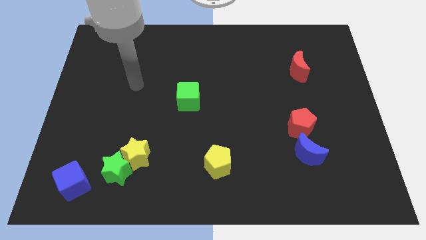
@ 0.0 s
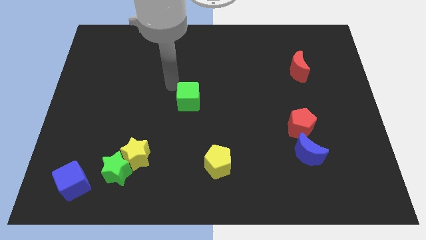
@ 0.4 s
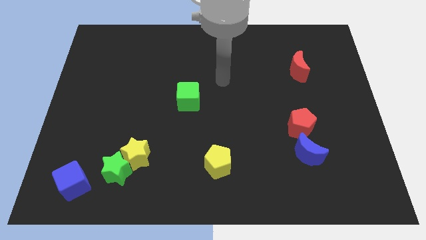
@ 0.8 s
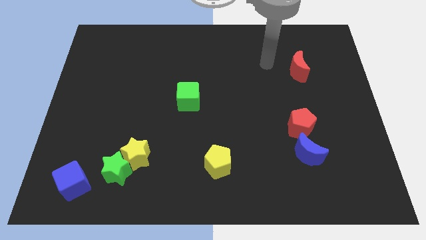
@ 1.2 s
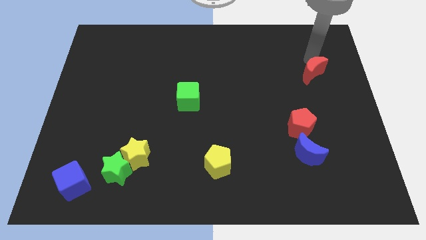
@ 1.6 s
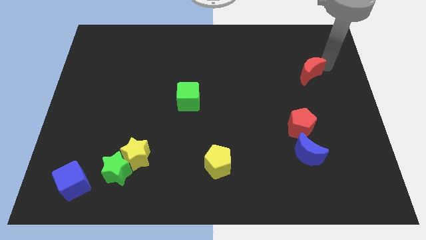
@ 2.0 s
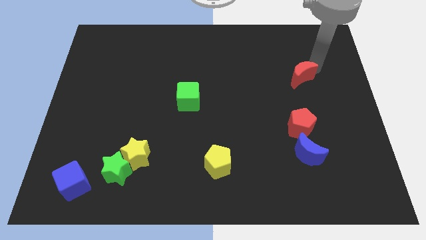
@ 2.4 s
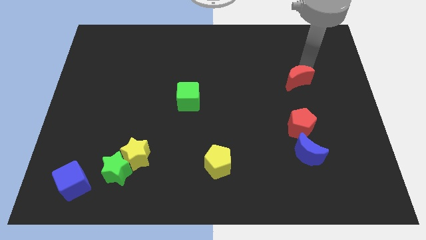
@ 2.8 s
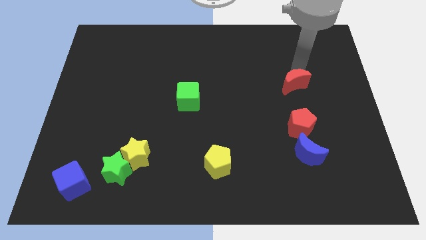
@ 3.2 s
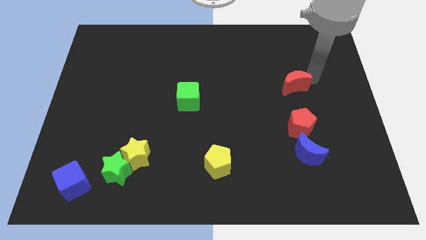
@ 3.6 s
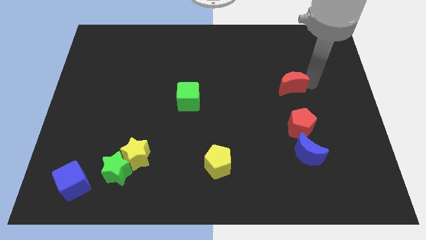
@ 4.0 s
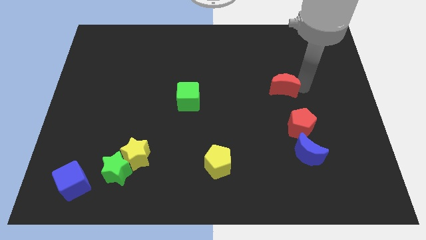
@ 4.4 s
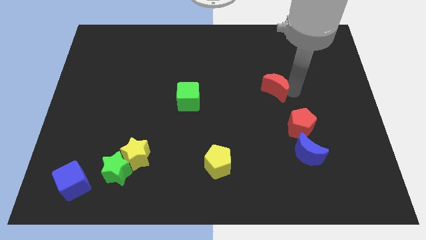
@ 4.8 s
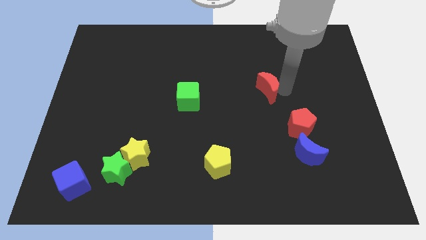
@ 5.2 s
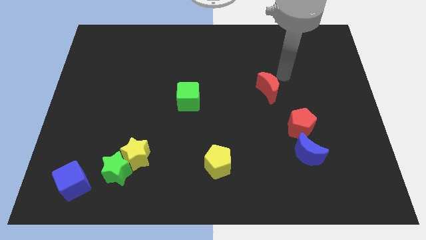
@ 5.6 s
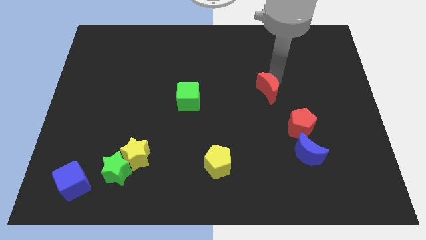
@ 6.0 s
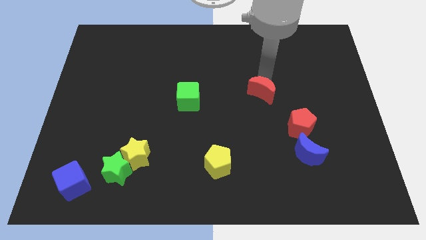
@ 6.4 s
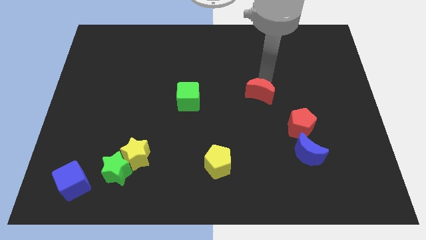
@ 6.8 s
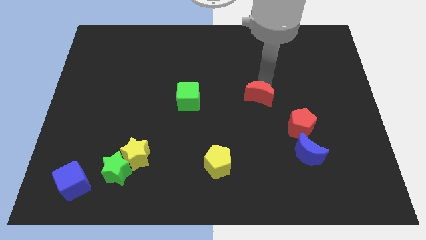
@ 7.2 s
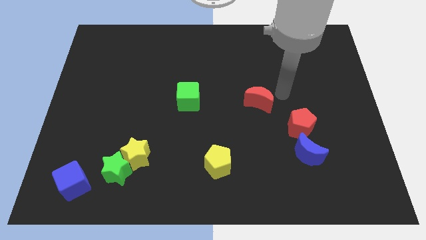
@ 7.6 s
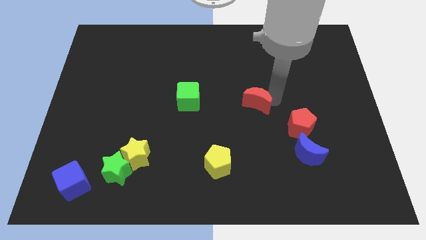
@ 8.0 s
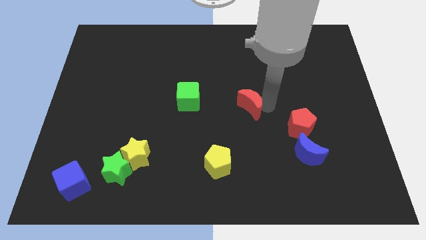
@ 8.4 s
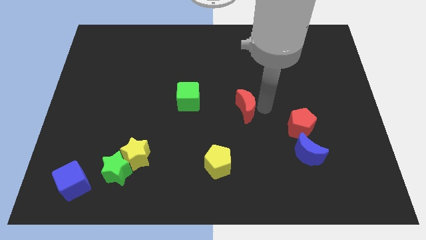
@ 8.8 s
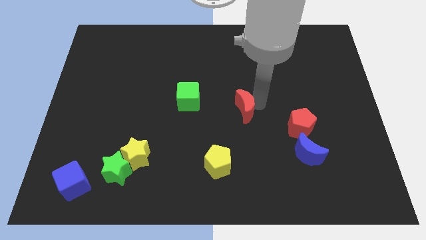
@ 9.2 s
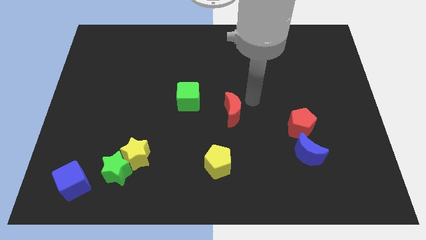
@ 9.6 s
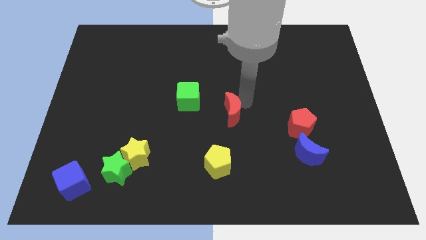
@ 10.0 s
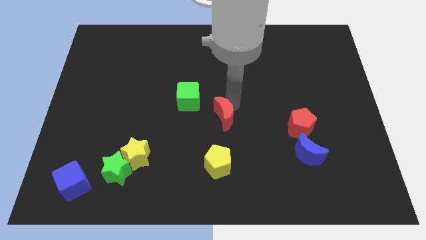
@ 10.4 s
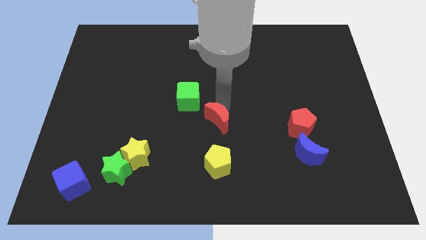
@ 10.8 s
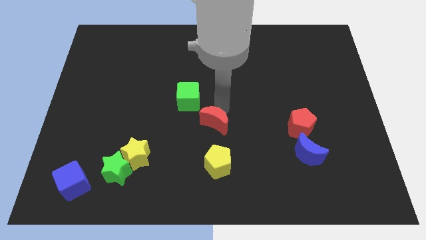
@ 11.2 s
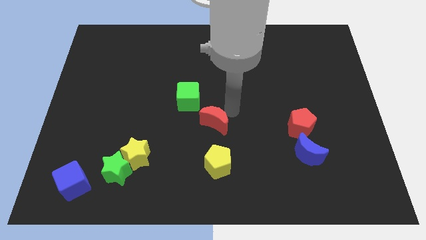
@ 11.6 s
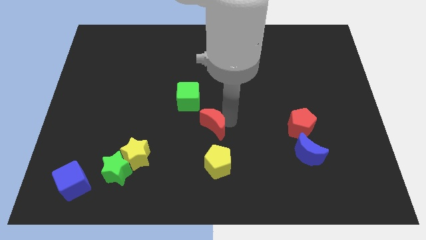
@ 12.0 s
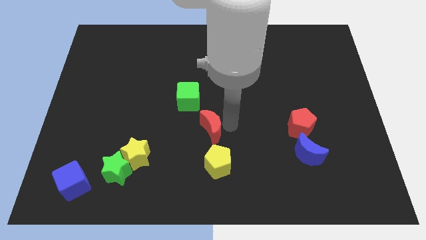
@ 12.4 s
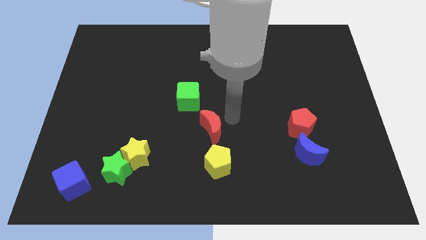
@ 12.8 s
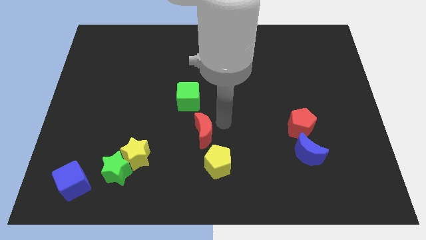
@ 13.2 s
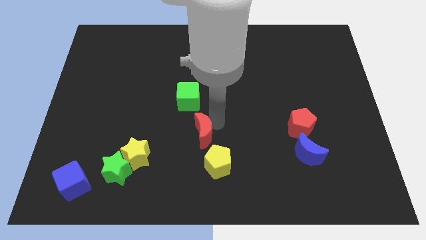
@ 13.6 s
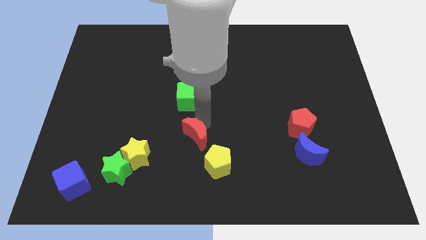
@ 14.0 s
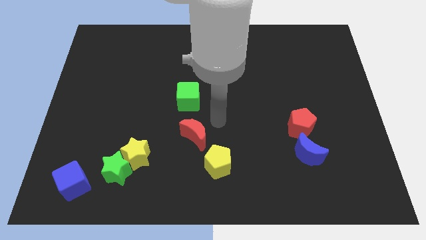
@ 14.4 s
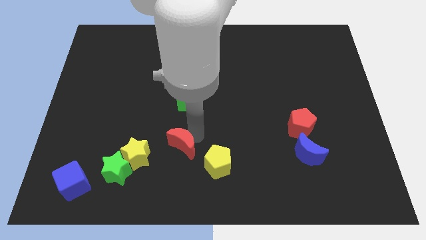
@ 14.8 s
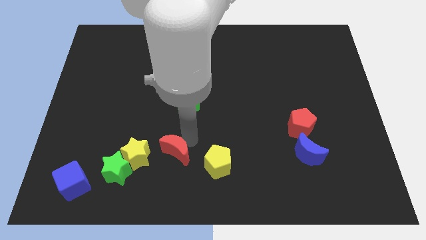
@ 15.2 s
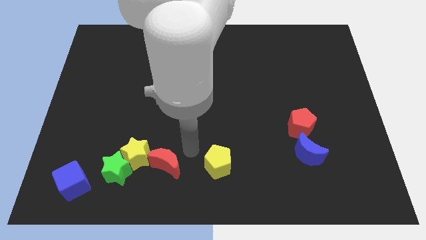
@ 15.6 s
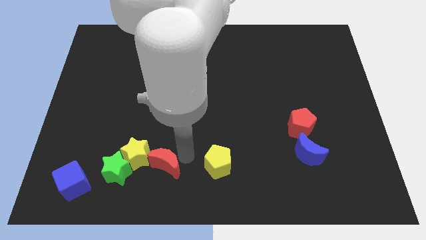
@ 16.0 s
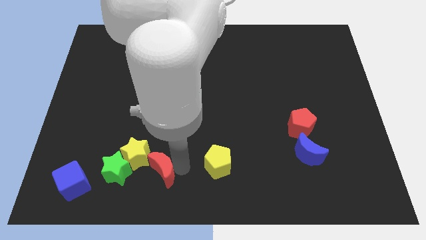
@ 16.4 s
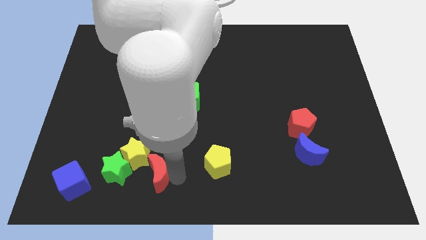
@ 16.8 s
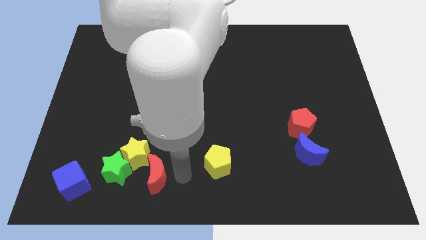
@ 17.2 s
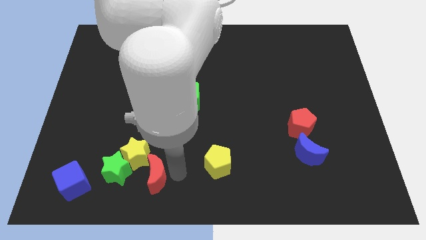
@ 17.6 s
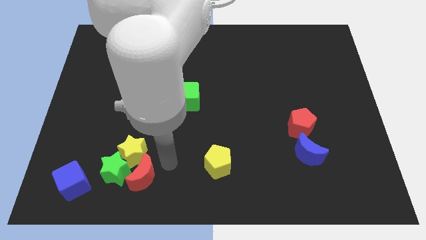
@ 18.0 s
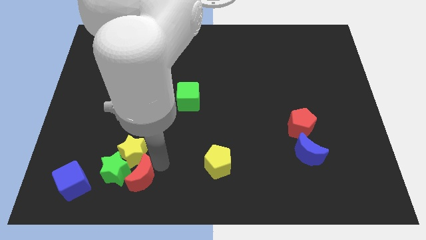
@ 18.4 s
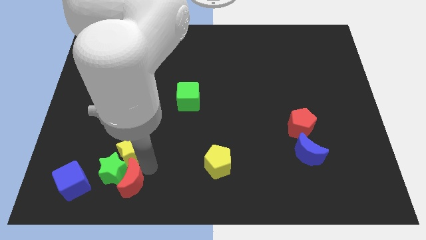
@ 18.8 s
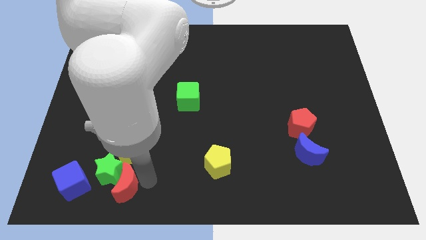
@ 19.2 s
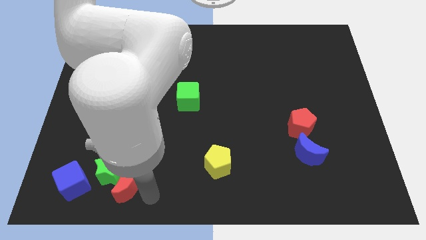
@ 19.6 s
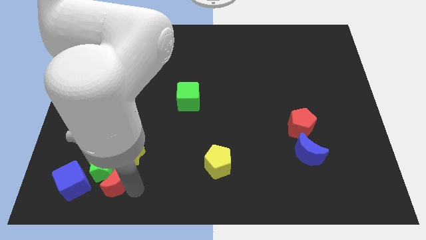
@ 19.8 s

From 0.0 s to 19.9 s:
push the red moon diagonally down and to the left of the yellow star

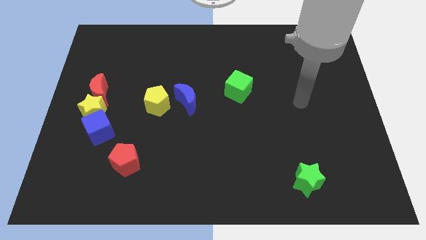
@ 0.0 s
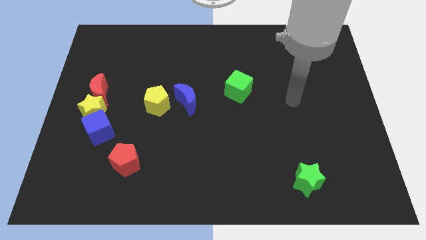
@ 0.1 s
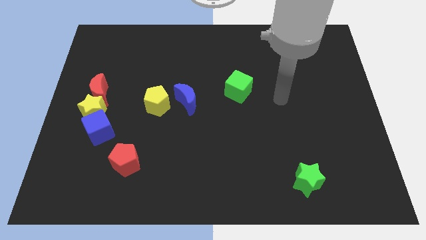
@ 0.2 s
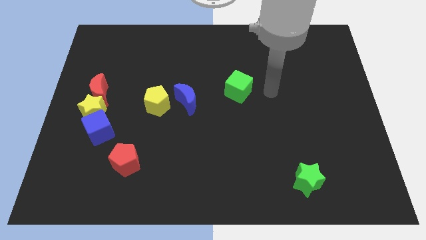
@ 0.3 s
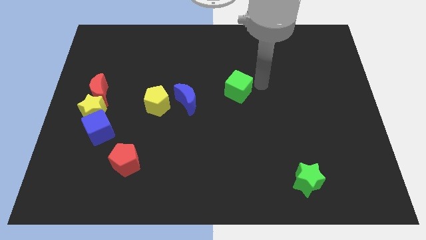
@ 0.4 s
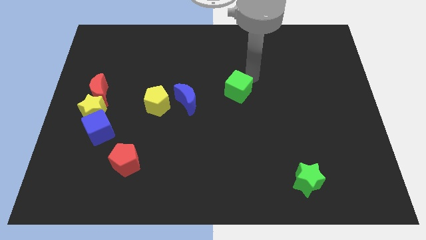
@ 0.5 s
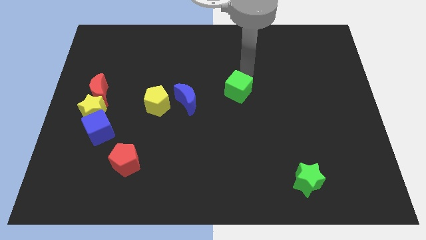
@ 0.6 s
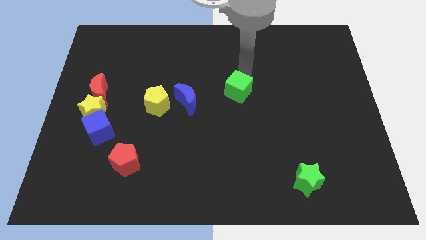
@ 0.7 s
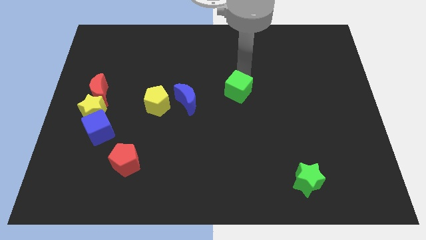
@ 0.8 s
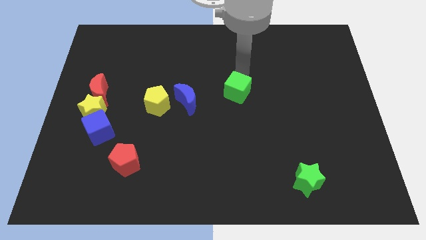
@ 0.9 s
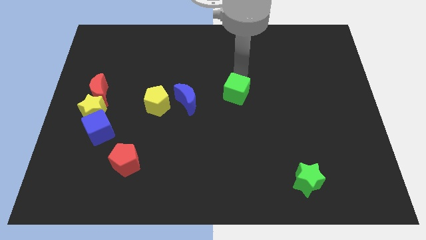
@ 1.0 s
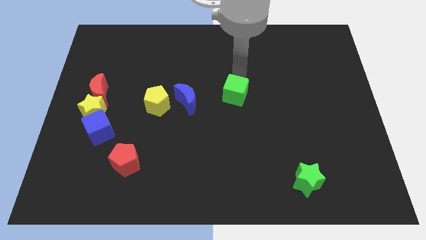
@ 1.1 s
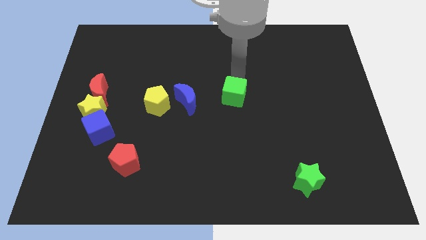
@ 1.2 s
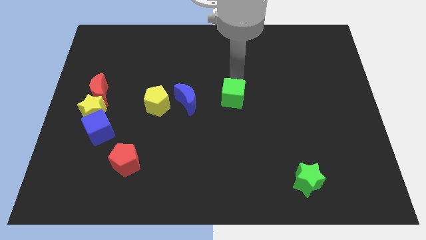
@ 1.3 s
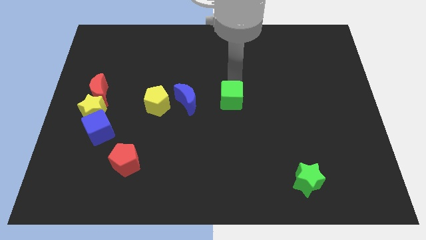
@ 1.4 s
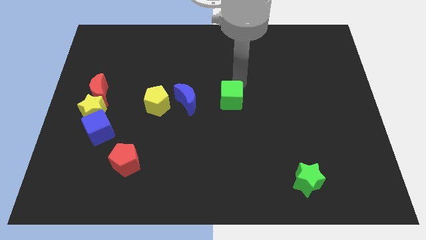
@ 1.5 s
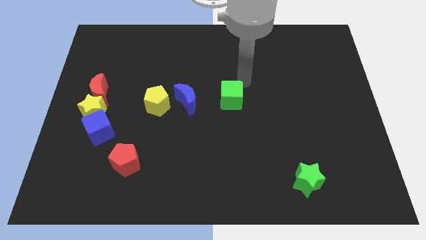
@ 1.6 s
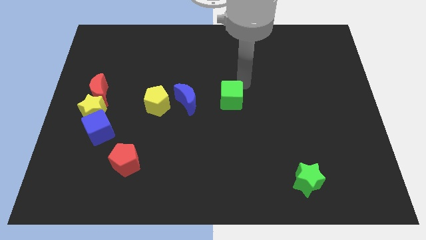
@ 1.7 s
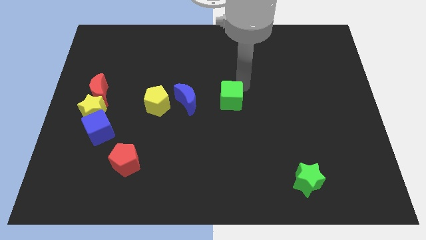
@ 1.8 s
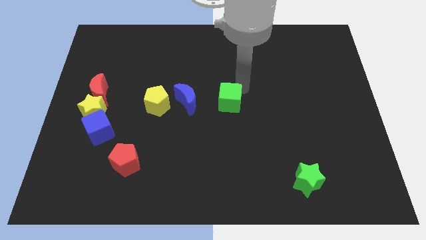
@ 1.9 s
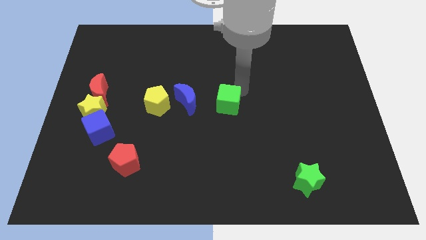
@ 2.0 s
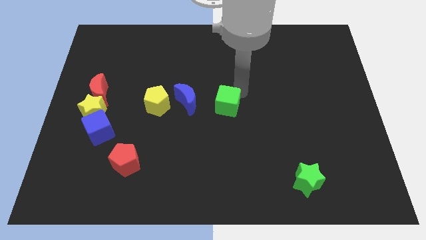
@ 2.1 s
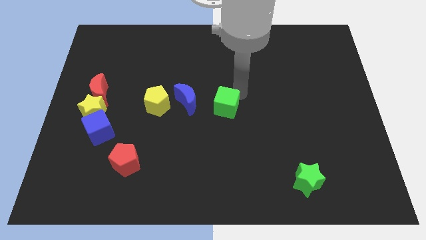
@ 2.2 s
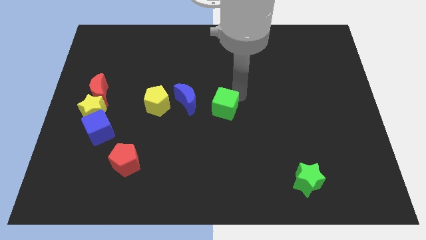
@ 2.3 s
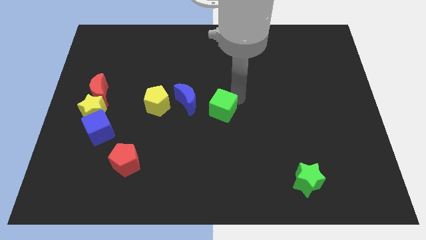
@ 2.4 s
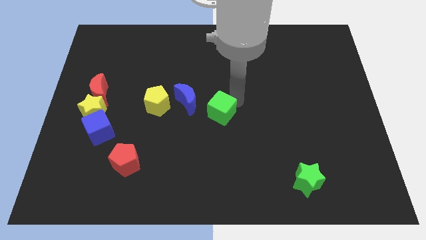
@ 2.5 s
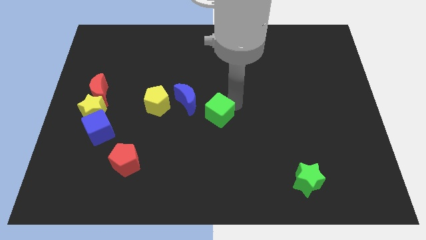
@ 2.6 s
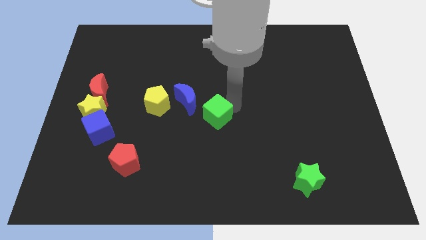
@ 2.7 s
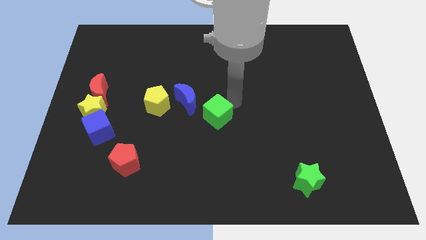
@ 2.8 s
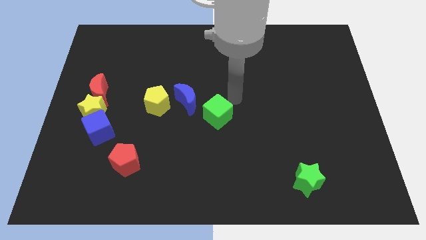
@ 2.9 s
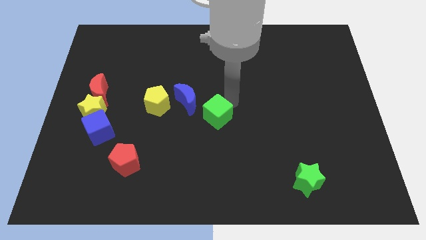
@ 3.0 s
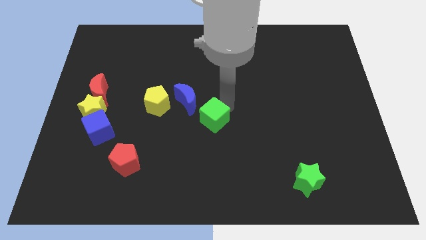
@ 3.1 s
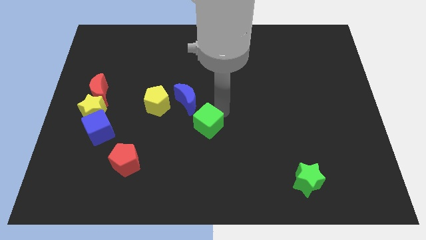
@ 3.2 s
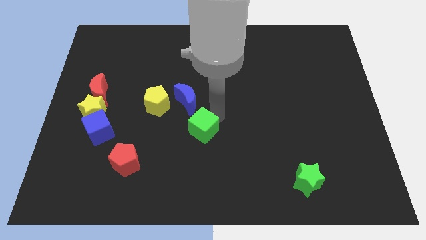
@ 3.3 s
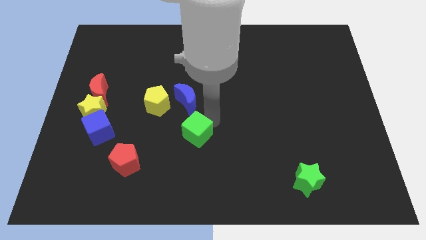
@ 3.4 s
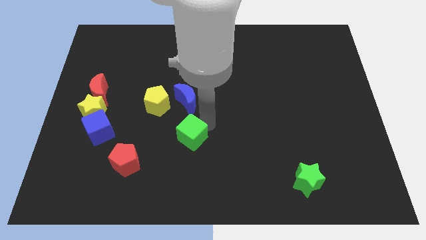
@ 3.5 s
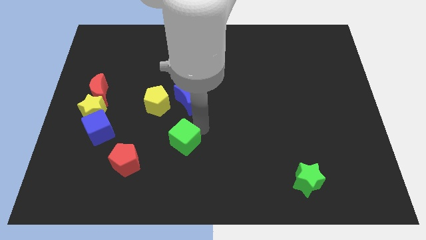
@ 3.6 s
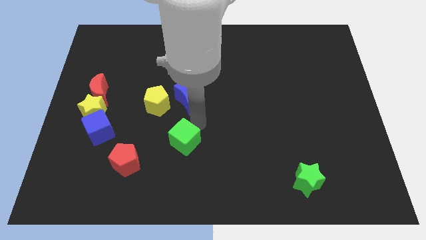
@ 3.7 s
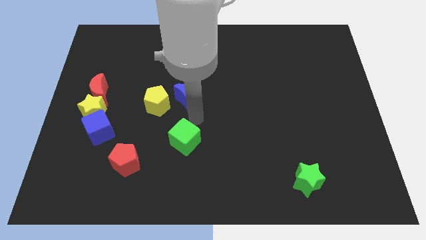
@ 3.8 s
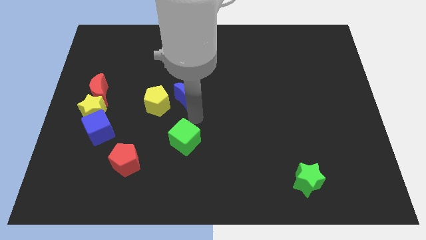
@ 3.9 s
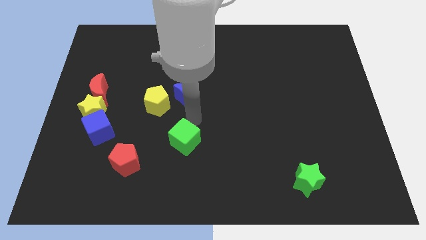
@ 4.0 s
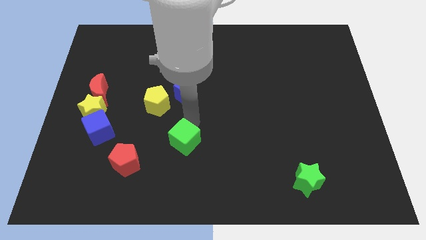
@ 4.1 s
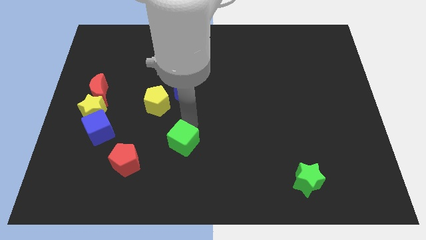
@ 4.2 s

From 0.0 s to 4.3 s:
push the green cube just right of the red pentagon
